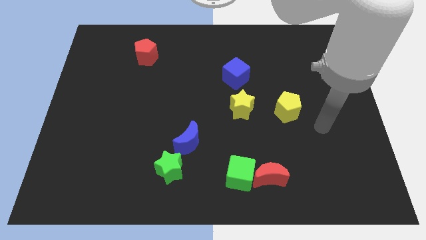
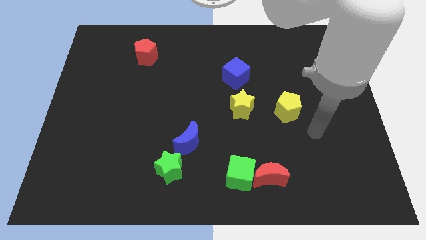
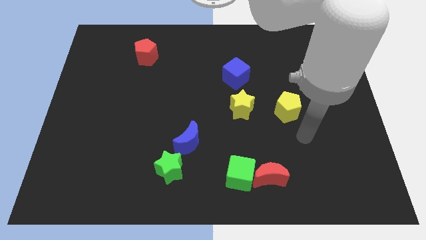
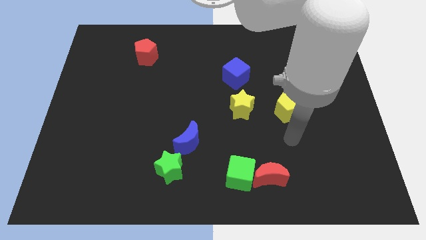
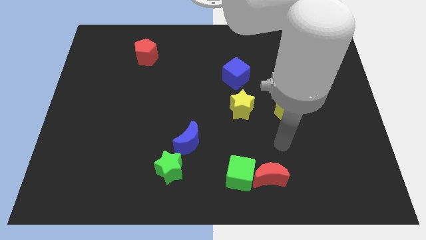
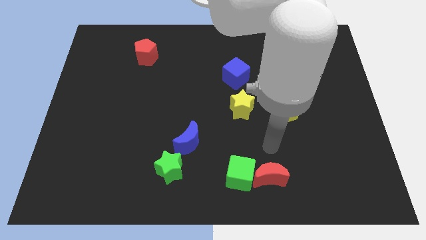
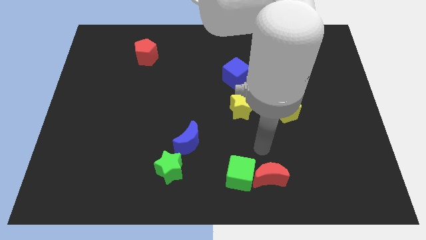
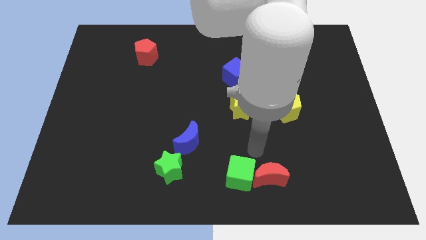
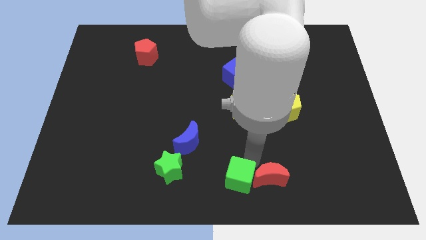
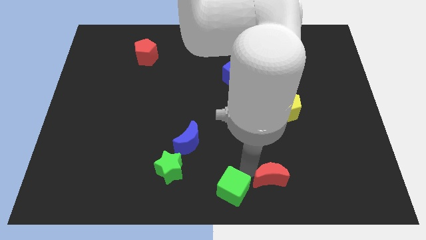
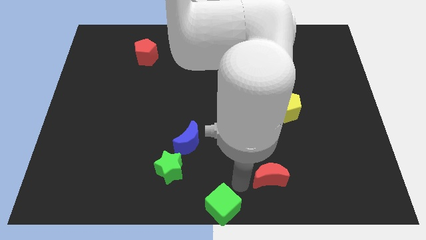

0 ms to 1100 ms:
separate the red moon from the green cube

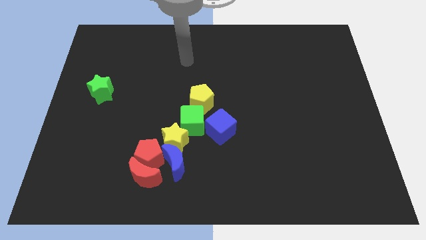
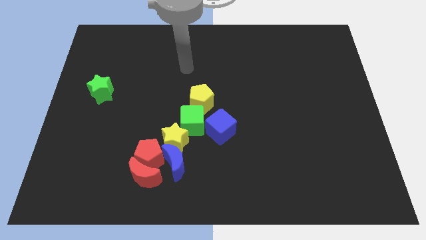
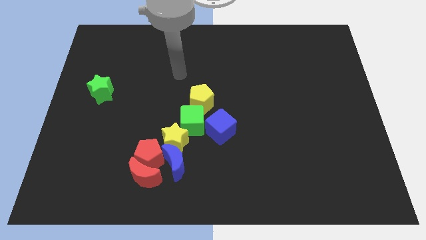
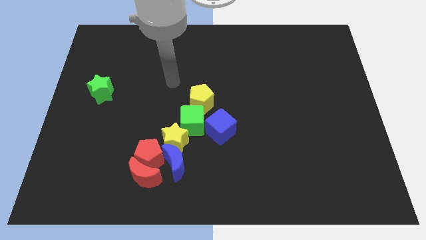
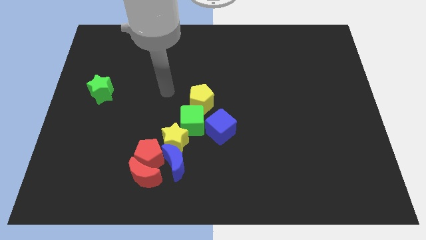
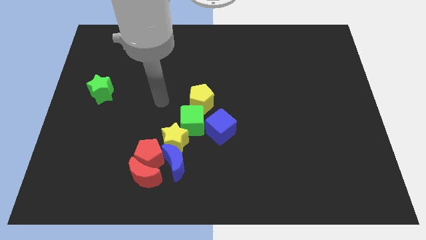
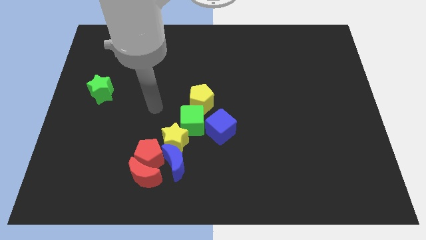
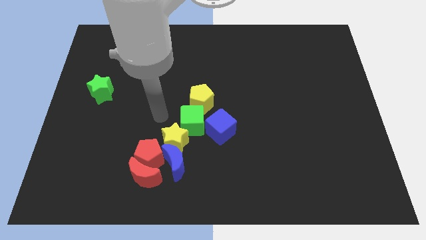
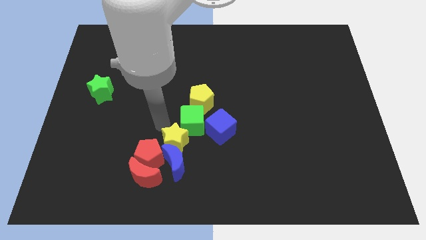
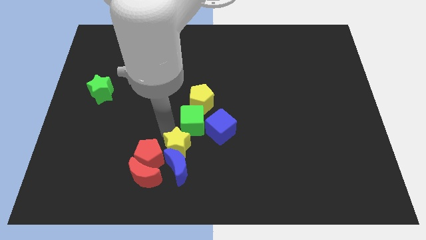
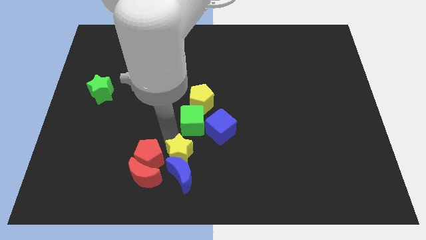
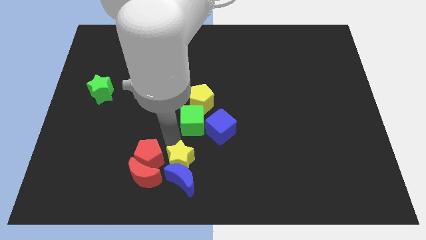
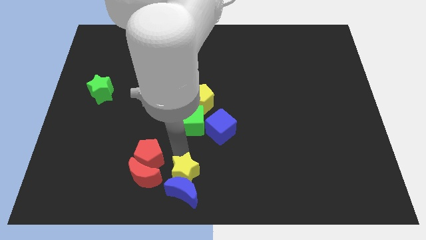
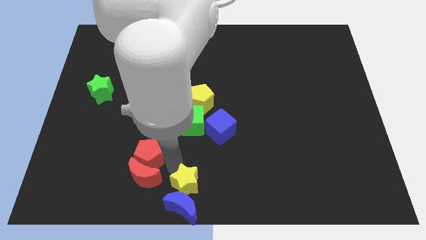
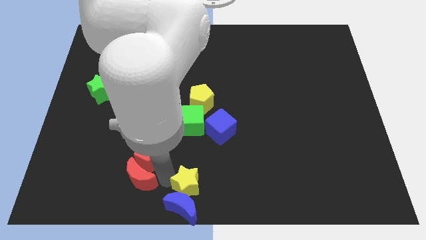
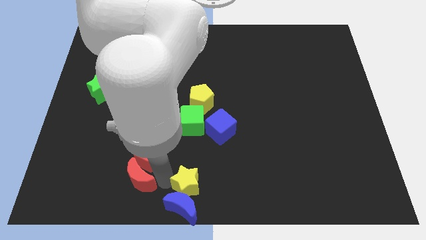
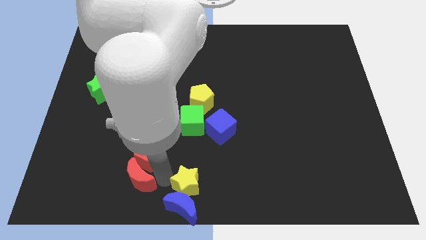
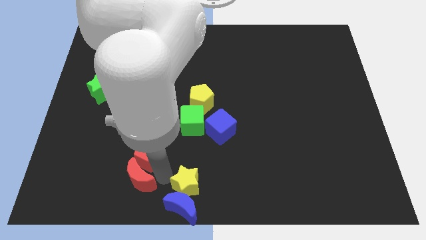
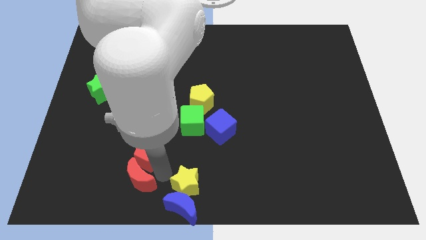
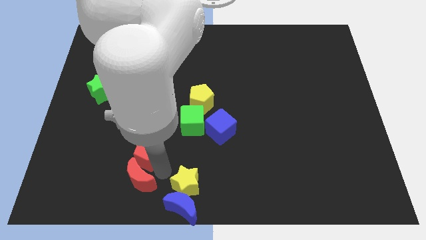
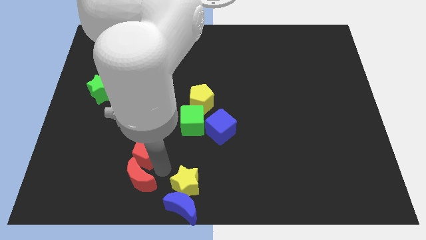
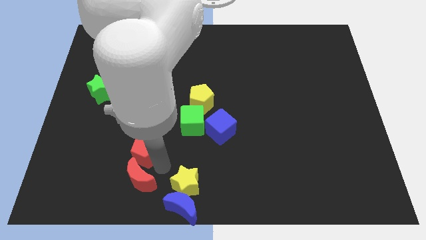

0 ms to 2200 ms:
separate the red pentagon from the group

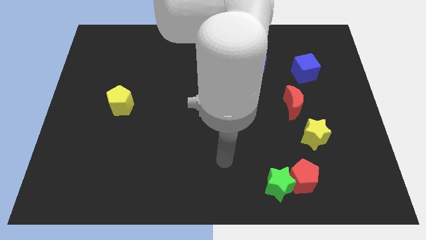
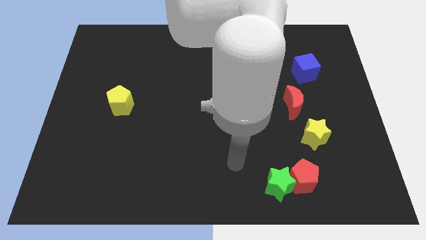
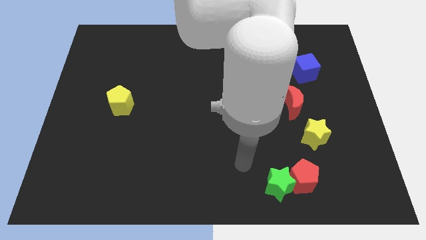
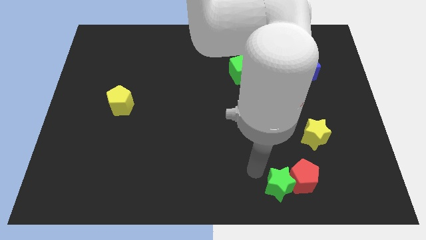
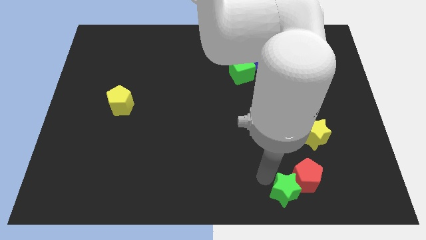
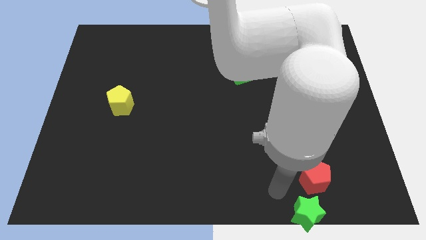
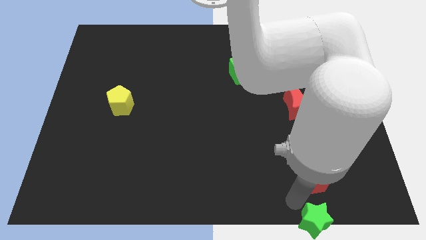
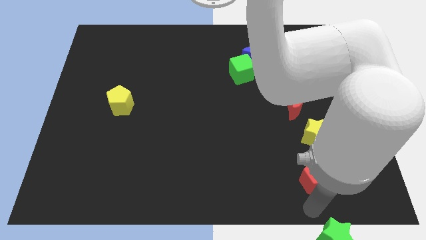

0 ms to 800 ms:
move the red pentagon away from the green star

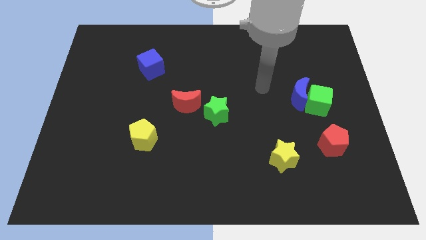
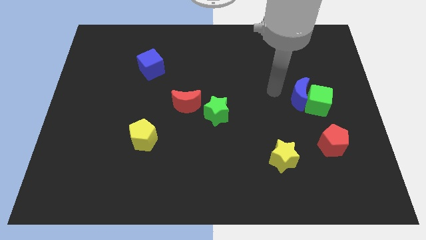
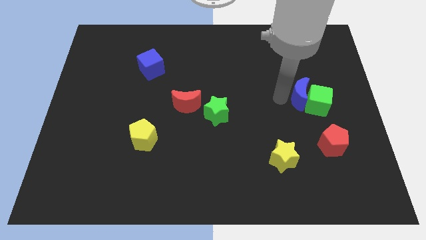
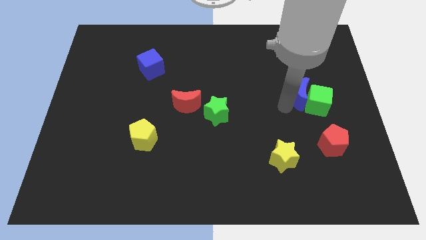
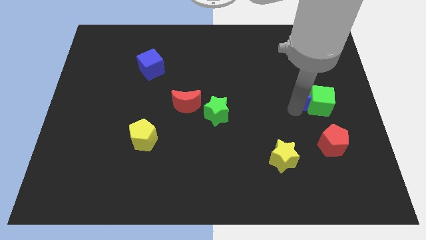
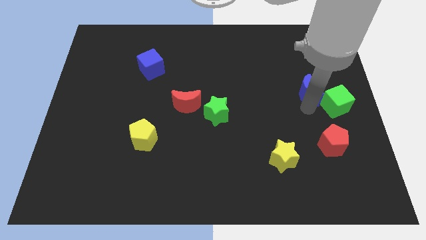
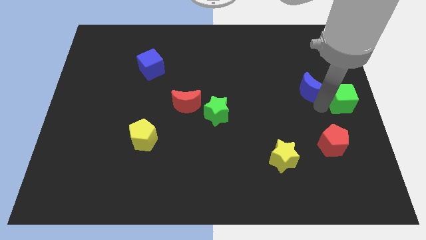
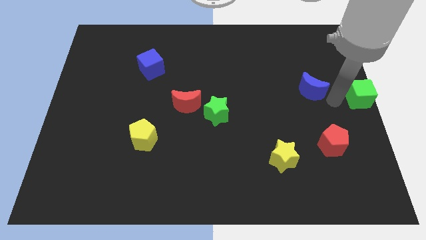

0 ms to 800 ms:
move the blue moon away from the green cube

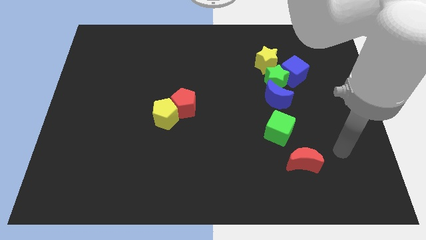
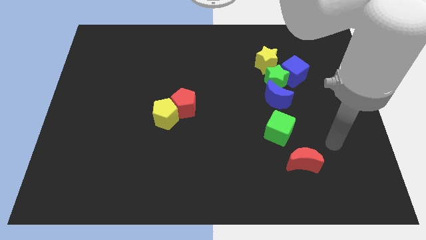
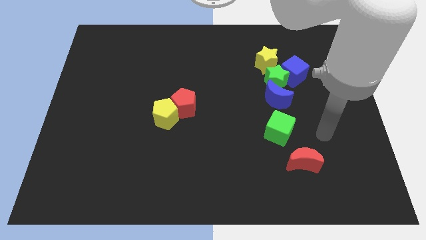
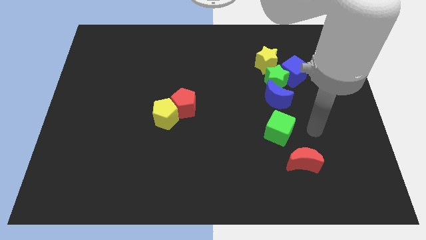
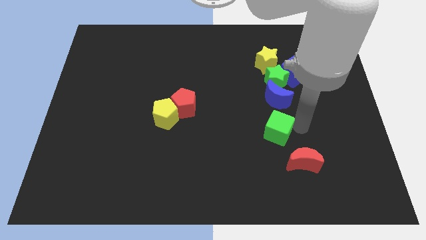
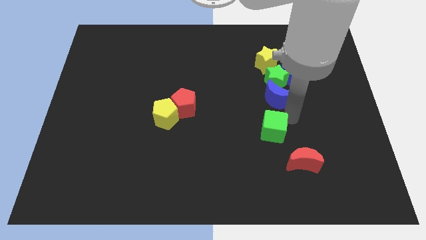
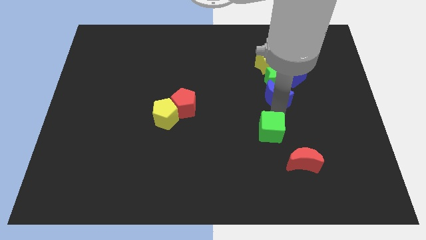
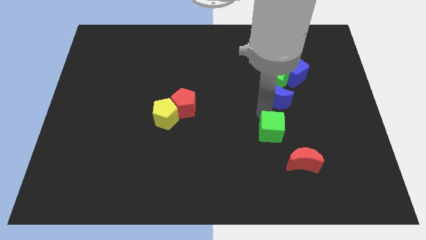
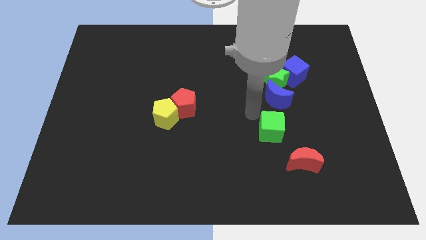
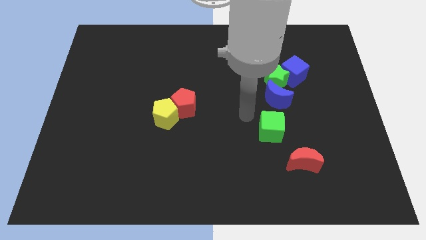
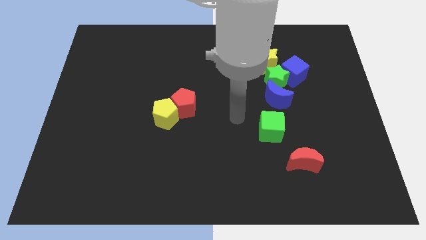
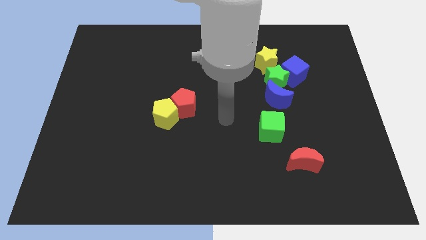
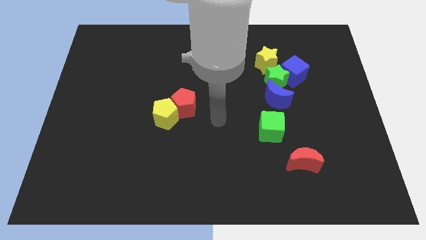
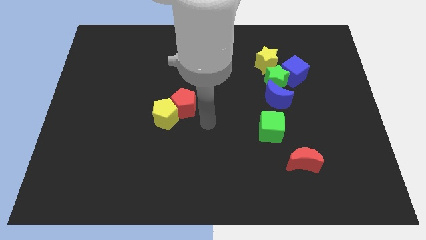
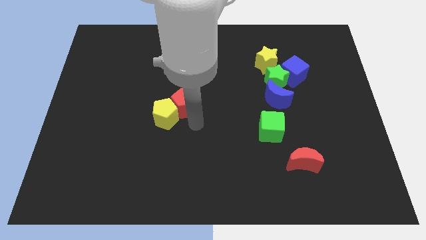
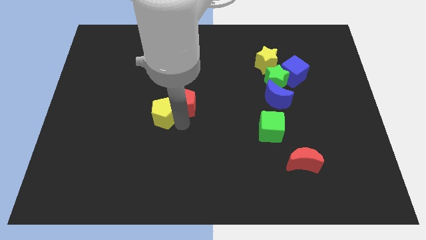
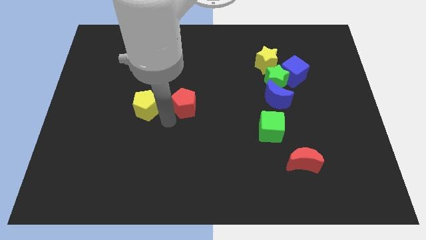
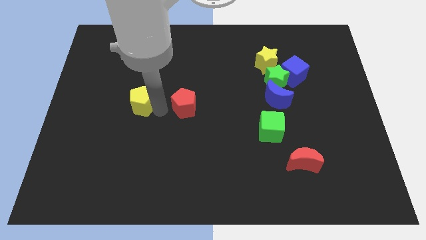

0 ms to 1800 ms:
move the red pentagon away from the yellow pentagon

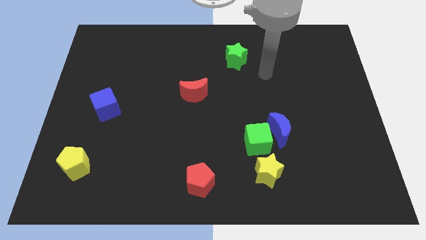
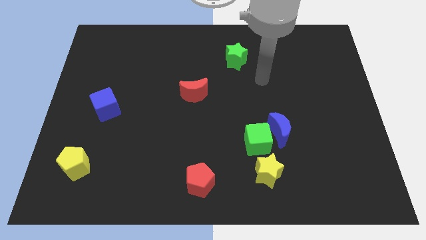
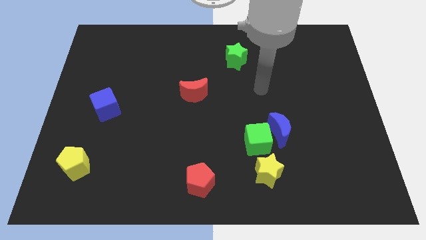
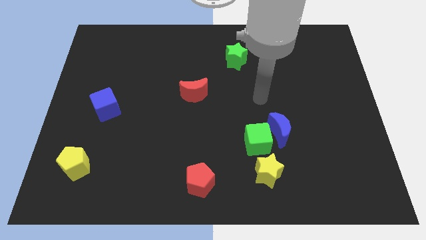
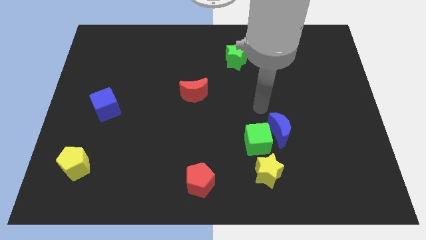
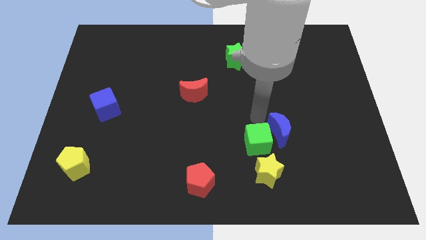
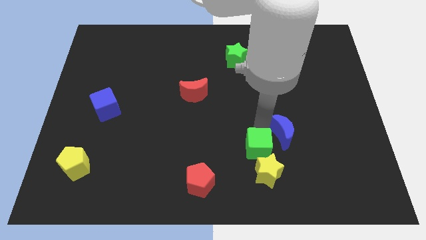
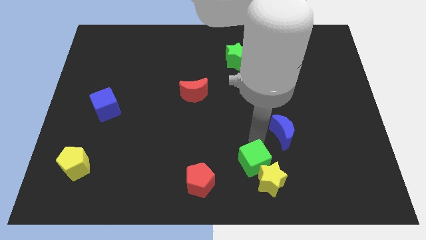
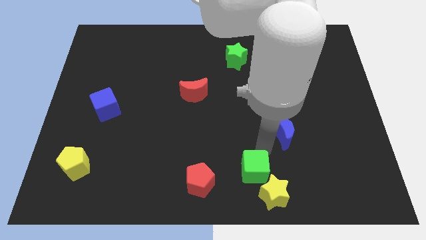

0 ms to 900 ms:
separate the blue moon from the green cube

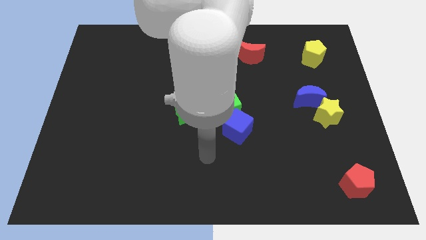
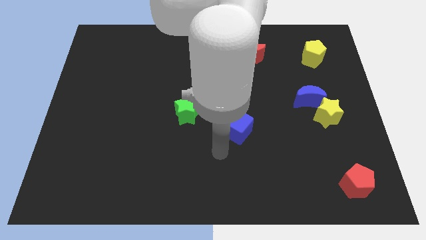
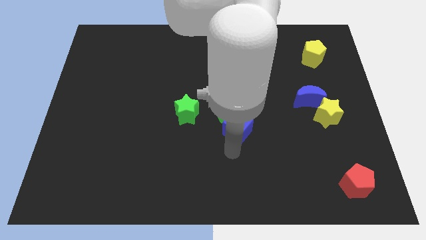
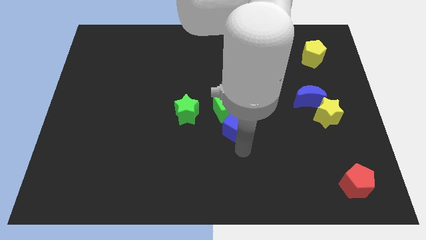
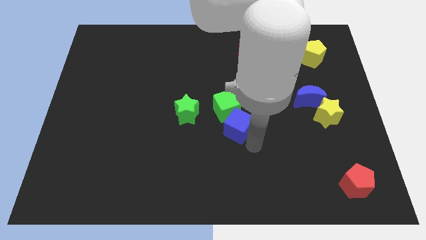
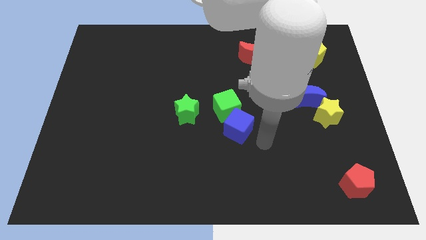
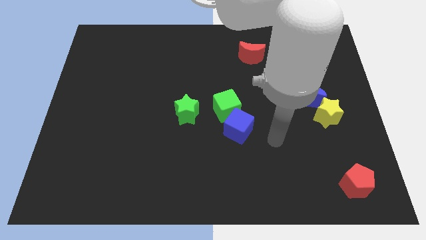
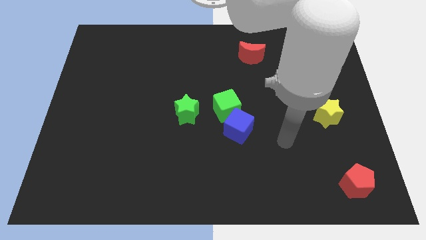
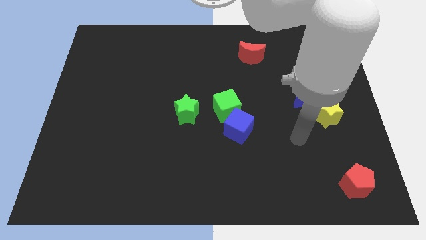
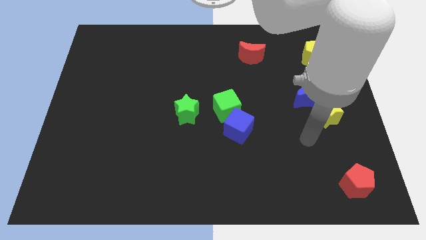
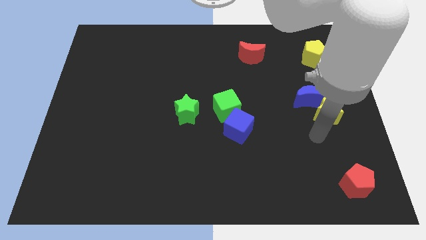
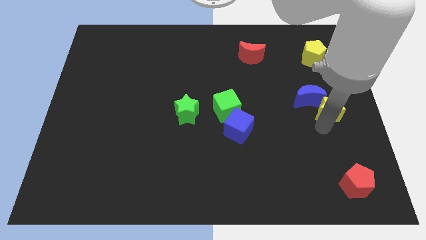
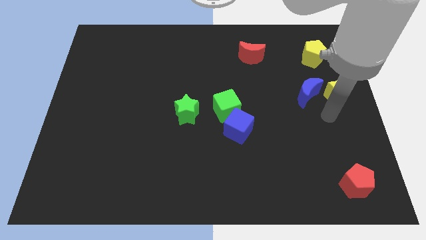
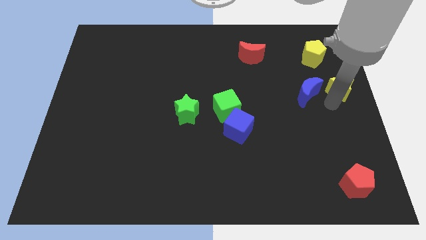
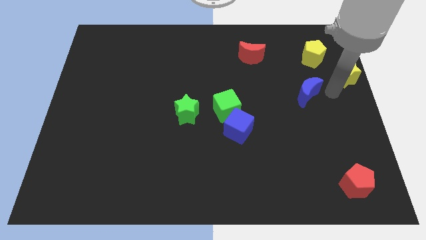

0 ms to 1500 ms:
separate the blue moon from the yellow star
